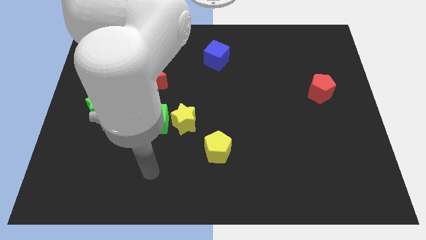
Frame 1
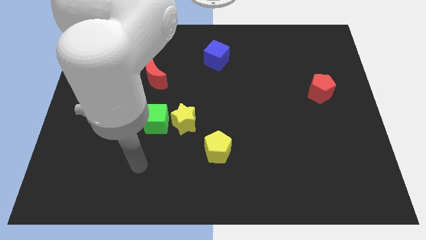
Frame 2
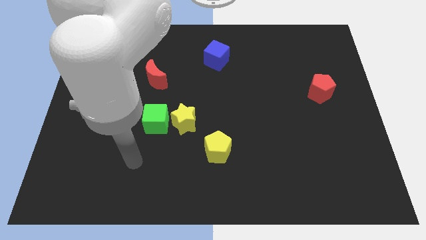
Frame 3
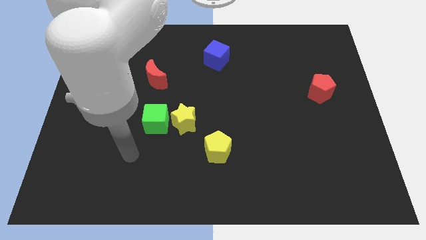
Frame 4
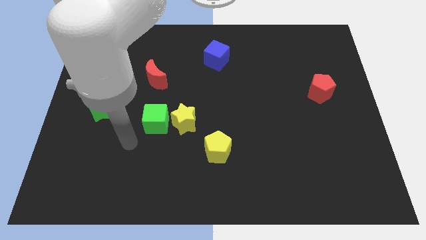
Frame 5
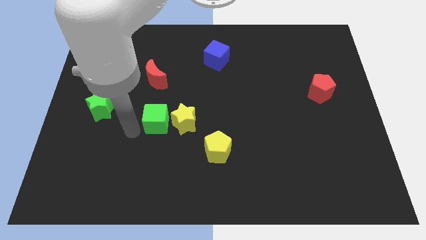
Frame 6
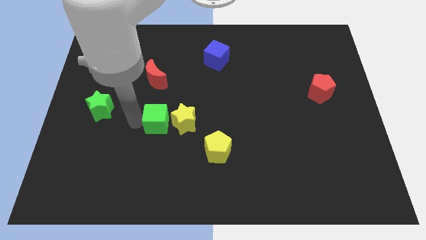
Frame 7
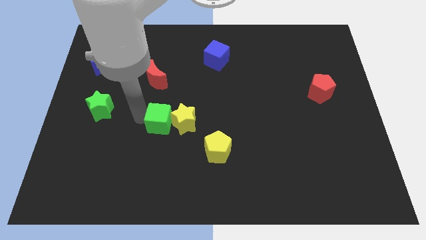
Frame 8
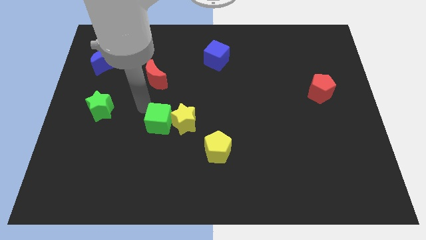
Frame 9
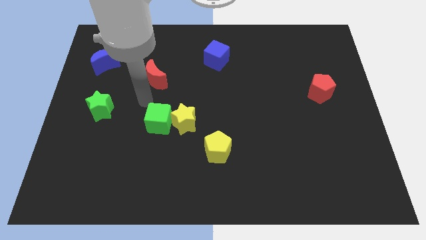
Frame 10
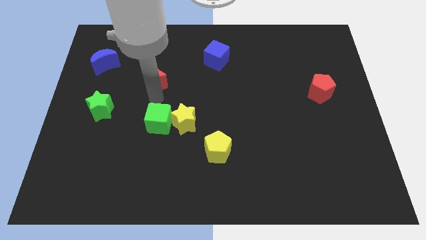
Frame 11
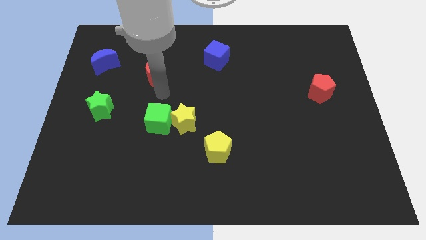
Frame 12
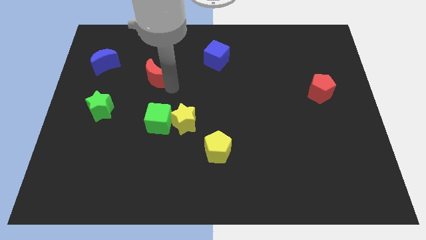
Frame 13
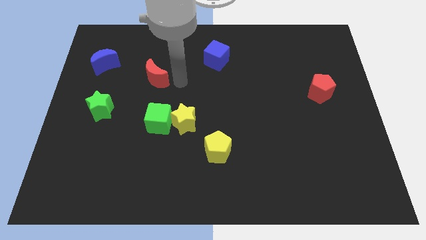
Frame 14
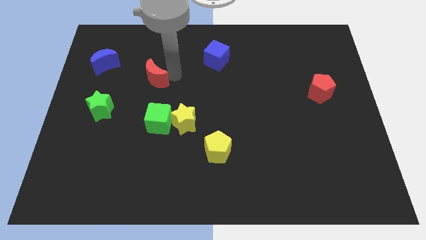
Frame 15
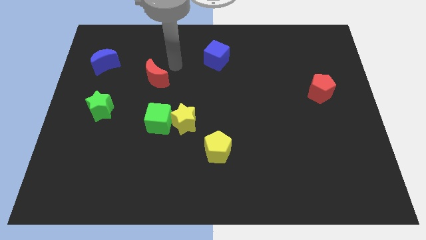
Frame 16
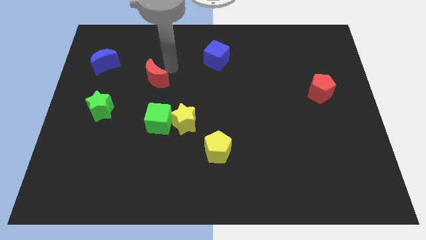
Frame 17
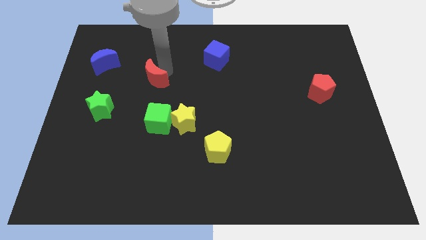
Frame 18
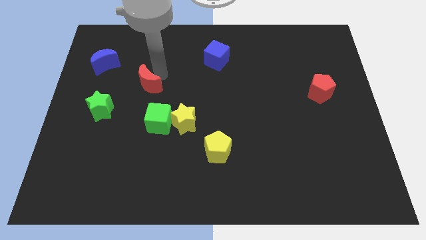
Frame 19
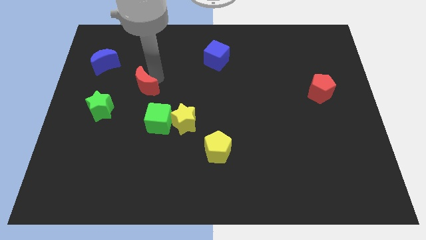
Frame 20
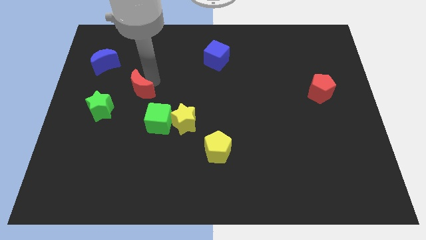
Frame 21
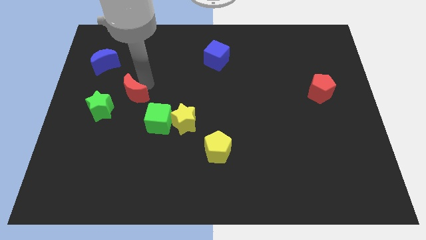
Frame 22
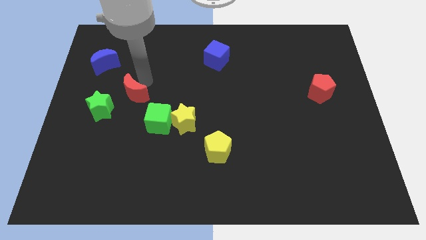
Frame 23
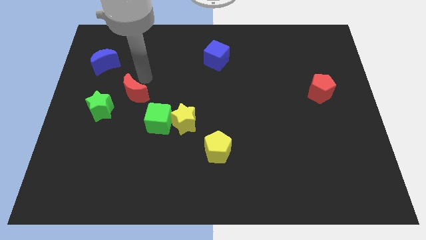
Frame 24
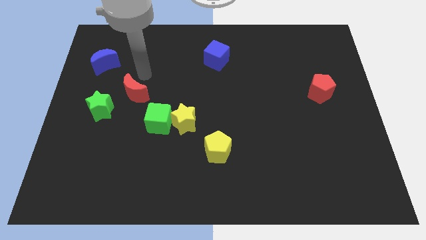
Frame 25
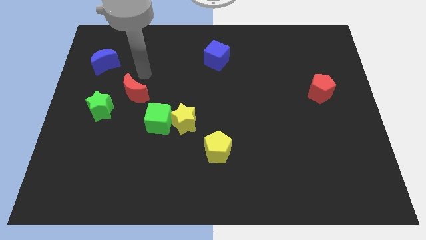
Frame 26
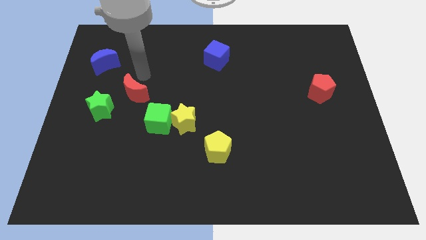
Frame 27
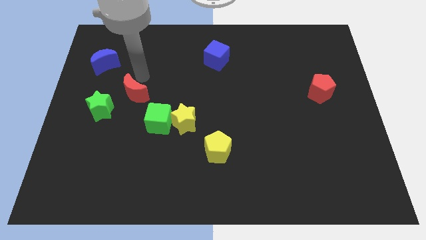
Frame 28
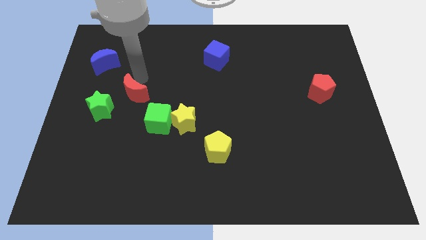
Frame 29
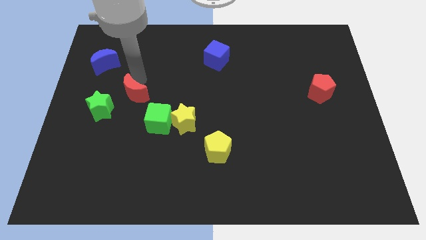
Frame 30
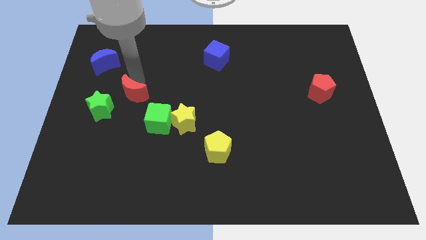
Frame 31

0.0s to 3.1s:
move the red moon downwards and then left a bit

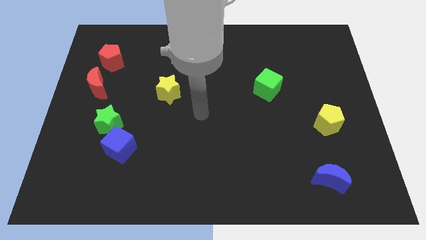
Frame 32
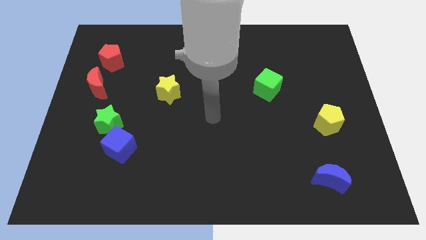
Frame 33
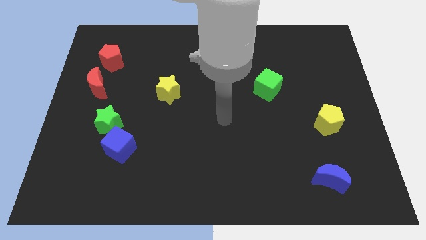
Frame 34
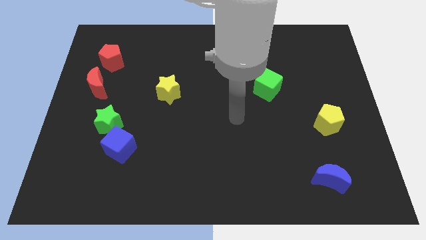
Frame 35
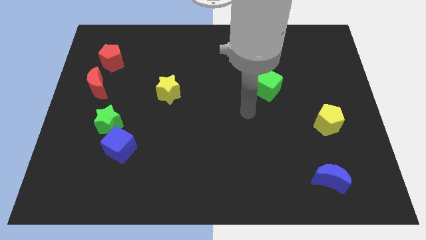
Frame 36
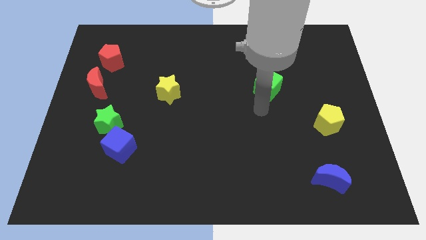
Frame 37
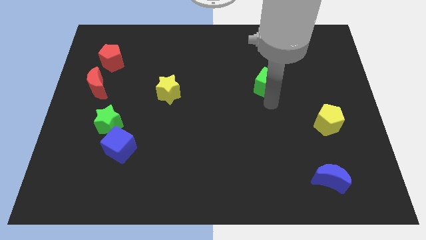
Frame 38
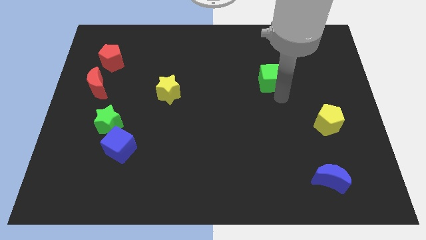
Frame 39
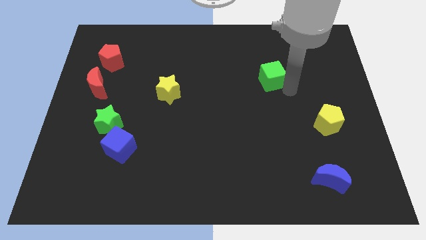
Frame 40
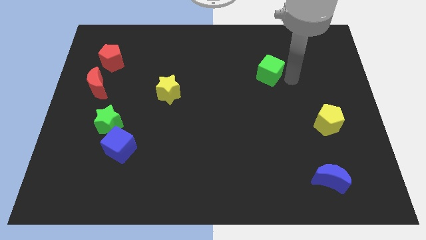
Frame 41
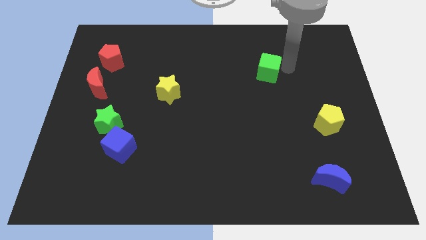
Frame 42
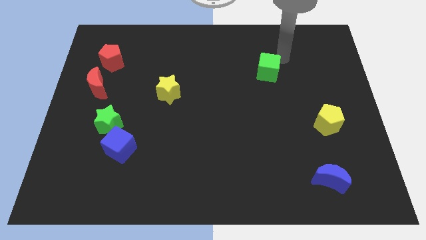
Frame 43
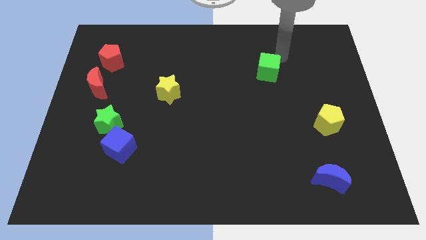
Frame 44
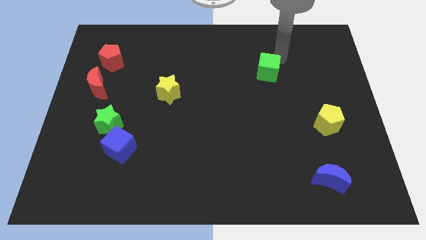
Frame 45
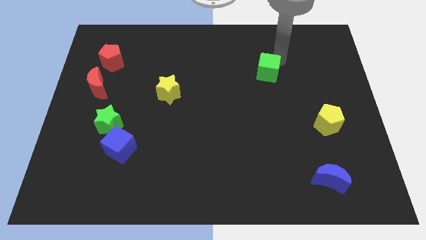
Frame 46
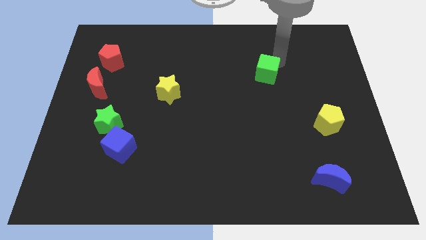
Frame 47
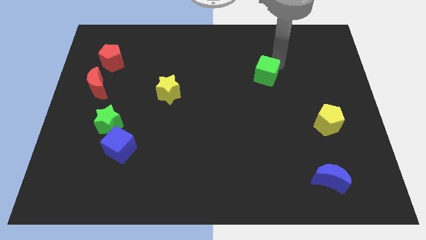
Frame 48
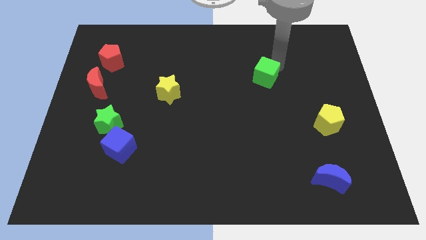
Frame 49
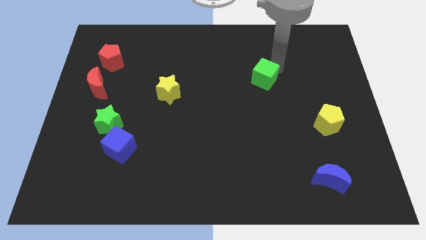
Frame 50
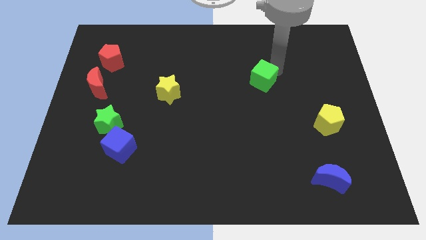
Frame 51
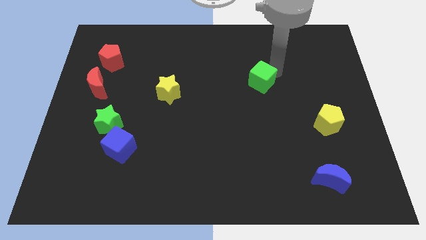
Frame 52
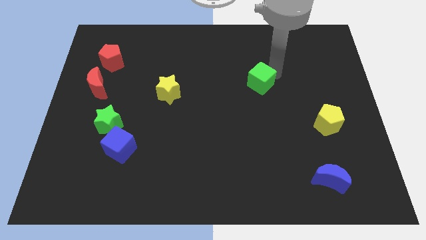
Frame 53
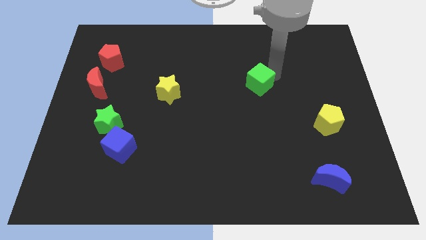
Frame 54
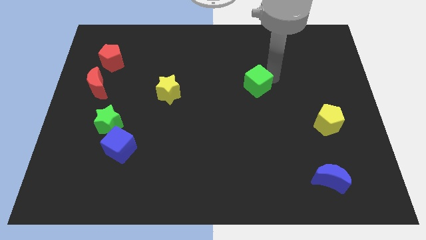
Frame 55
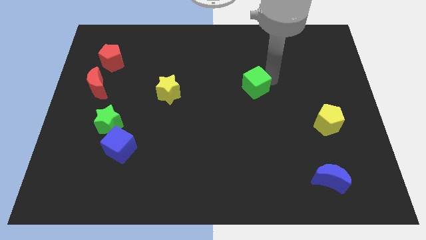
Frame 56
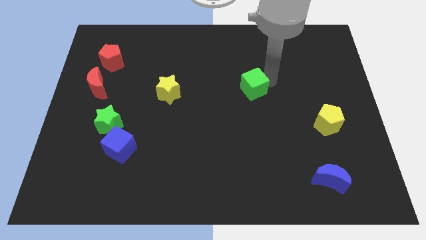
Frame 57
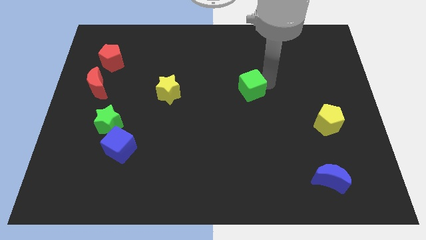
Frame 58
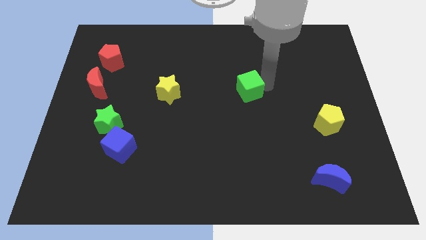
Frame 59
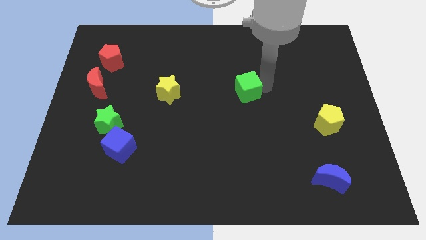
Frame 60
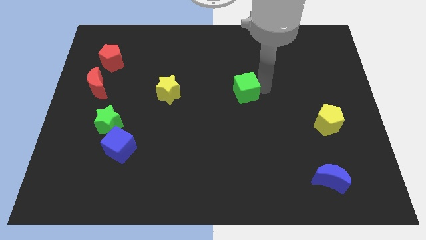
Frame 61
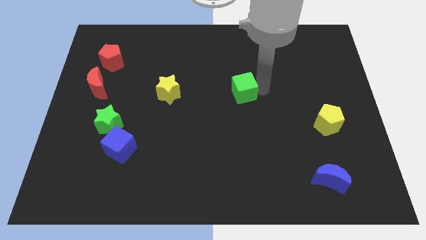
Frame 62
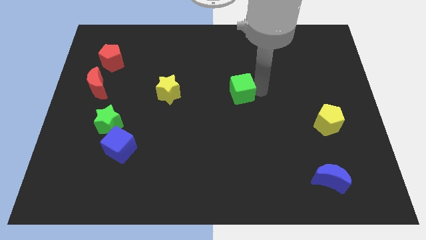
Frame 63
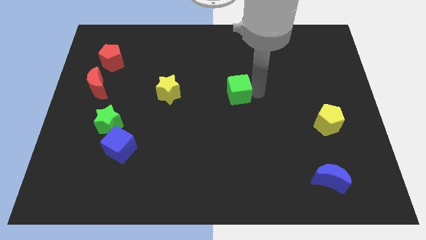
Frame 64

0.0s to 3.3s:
slide the green cube somewhat left

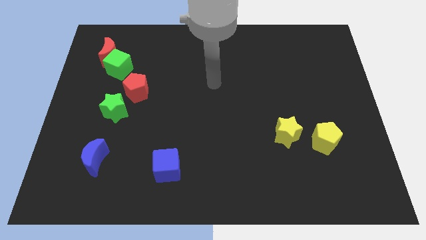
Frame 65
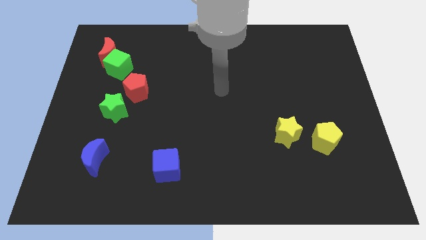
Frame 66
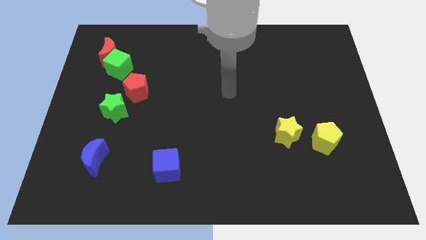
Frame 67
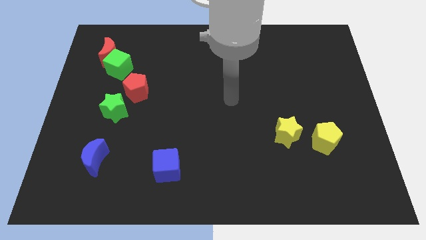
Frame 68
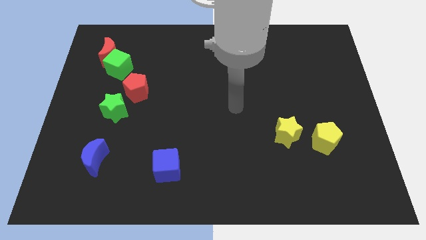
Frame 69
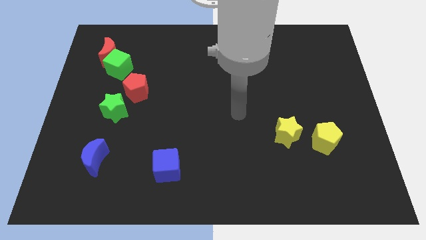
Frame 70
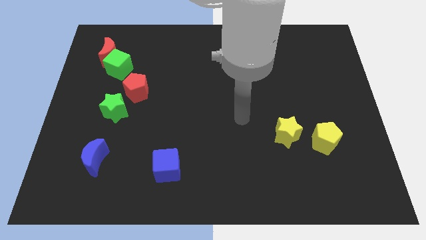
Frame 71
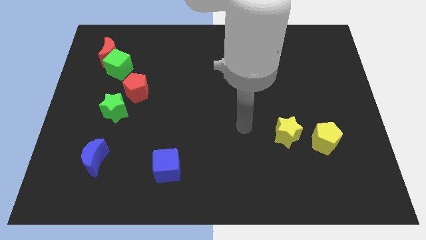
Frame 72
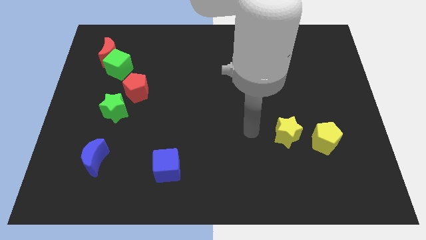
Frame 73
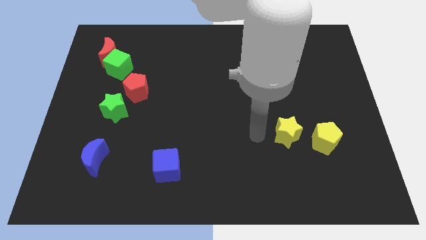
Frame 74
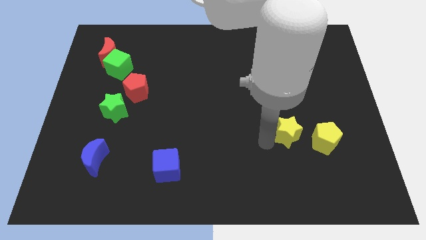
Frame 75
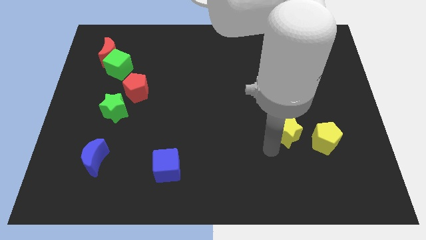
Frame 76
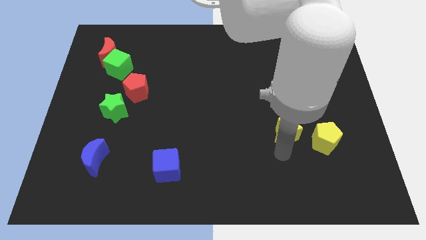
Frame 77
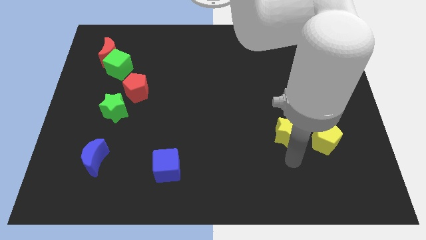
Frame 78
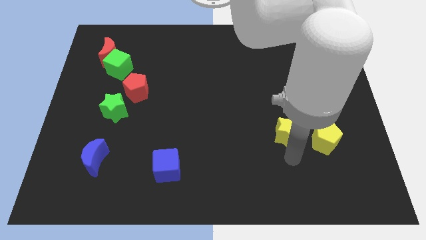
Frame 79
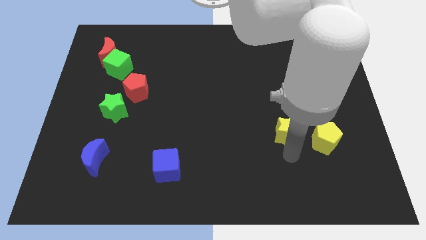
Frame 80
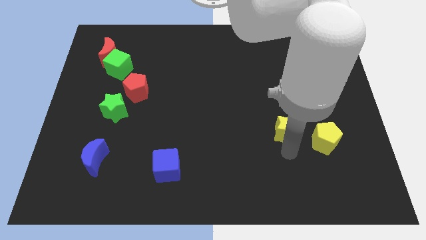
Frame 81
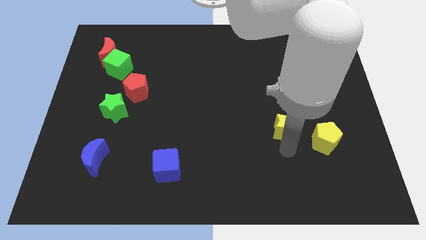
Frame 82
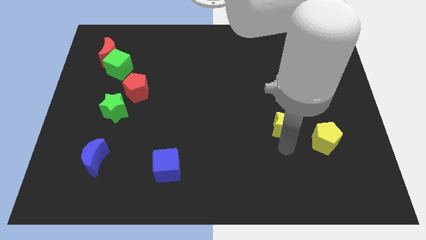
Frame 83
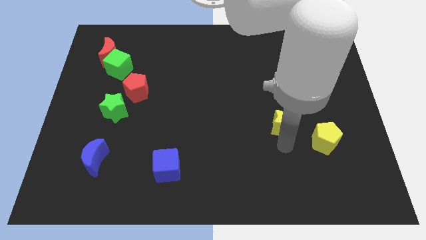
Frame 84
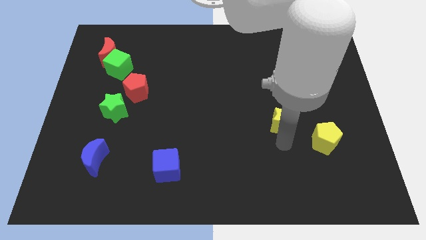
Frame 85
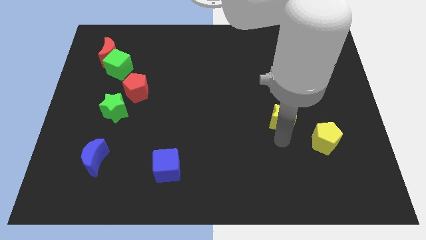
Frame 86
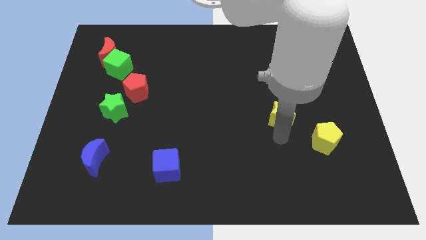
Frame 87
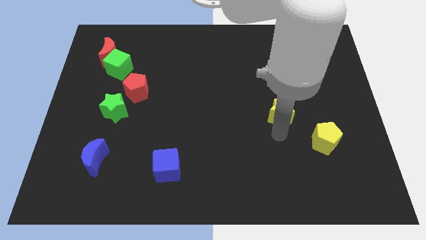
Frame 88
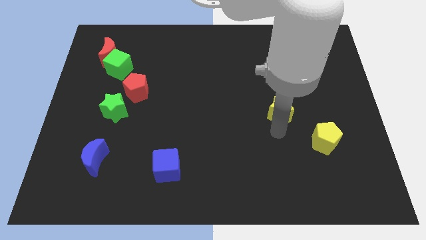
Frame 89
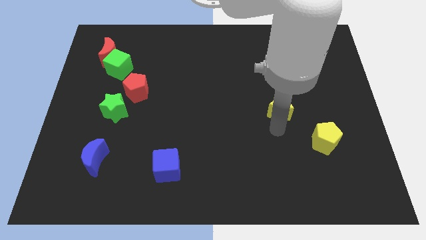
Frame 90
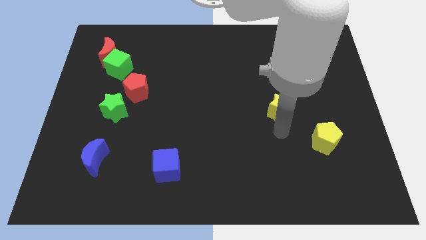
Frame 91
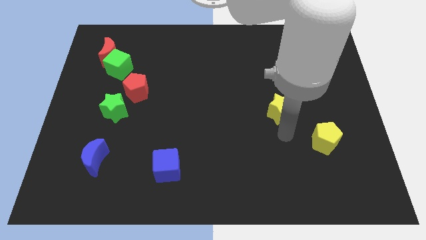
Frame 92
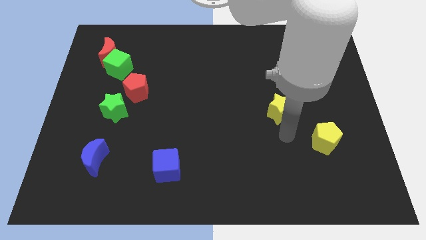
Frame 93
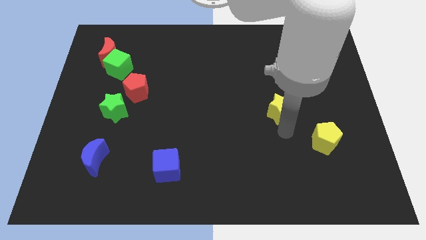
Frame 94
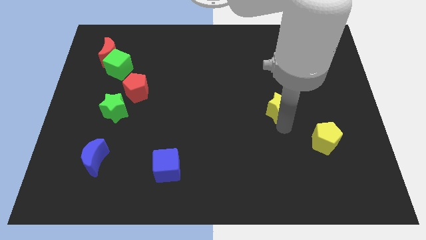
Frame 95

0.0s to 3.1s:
slide the yellow star a bit upwards
